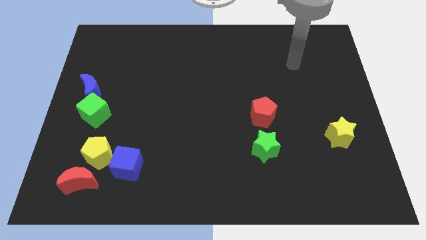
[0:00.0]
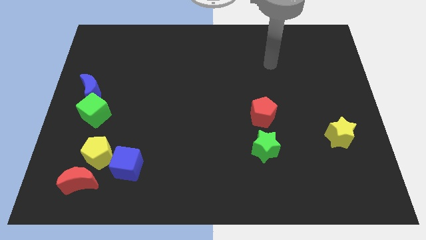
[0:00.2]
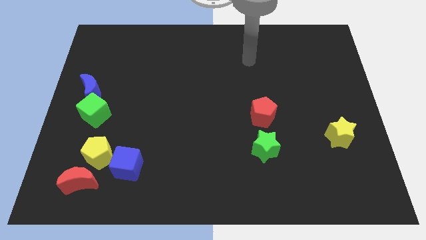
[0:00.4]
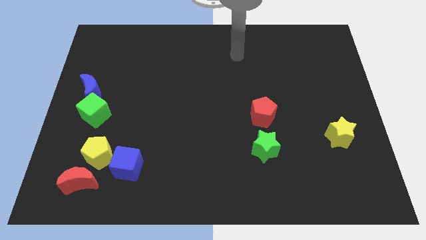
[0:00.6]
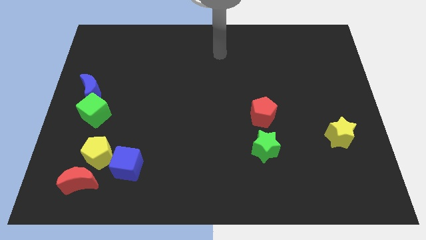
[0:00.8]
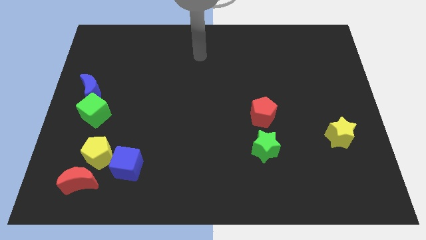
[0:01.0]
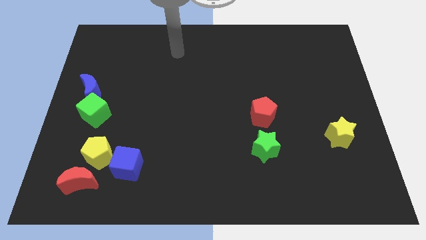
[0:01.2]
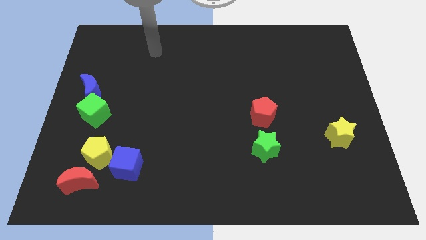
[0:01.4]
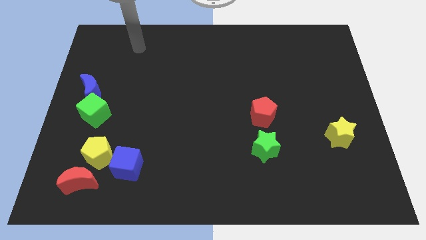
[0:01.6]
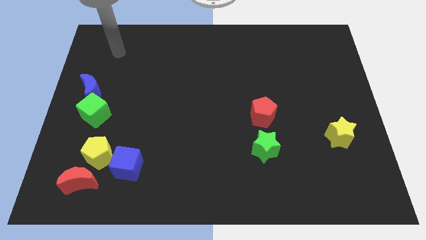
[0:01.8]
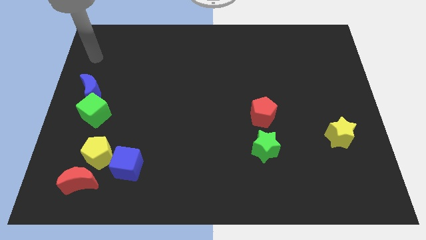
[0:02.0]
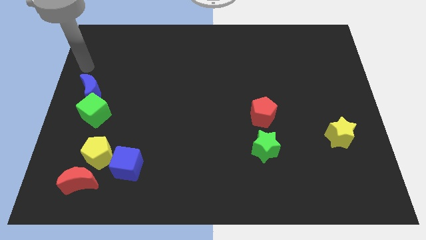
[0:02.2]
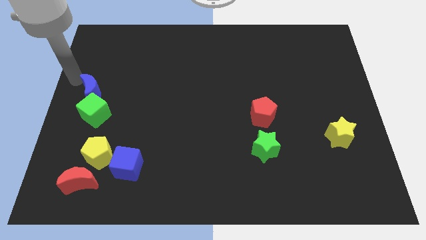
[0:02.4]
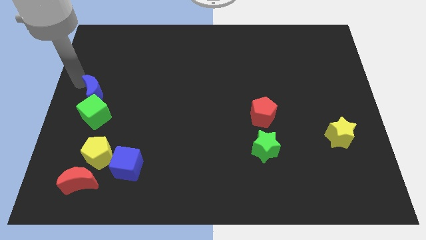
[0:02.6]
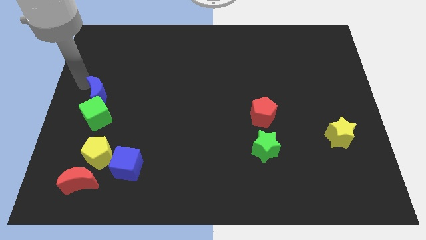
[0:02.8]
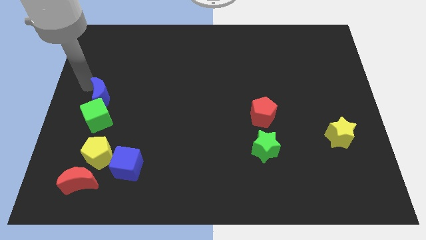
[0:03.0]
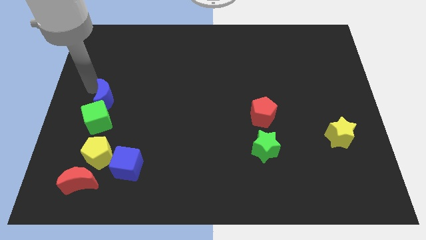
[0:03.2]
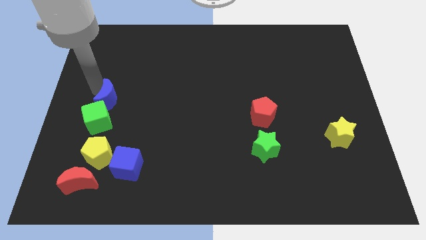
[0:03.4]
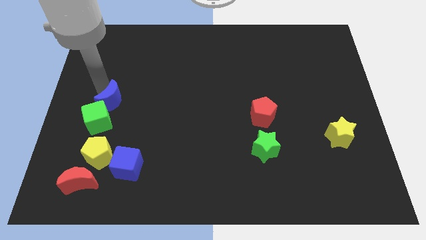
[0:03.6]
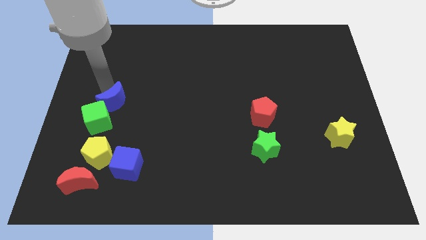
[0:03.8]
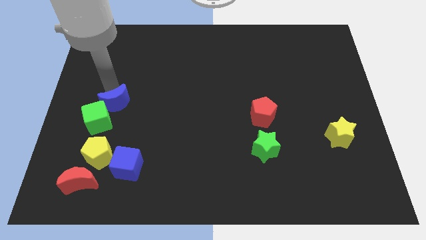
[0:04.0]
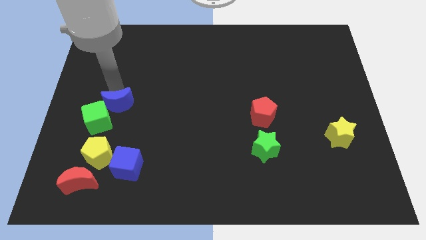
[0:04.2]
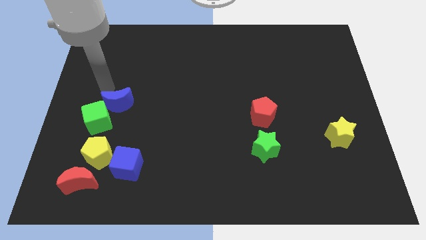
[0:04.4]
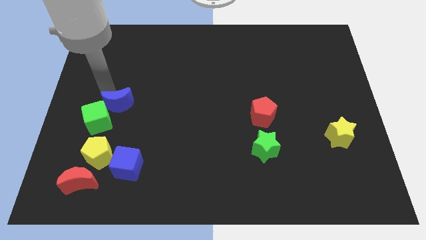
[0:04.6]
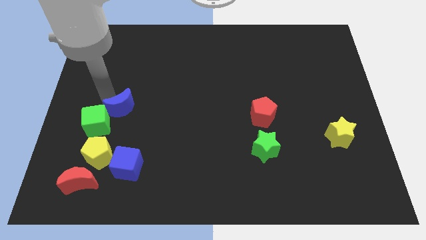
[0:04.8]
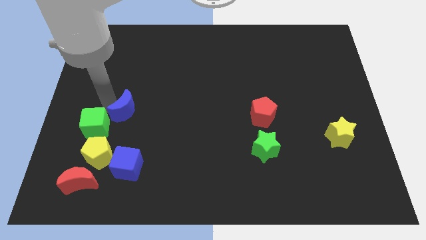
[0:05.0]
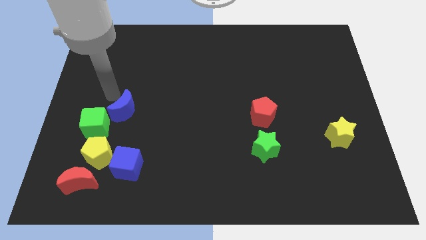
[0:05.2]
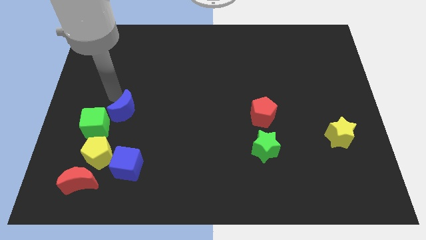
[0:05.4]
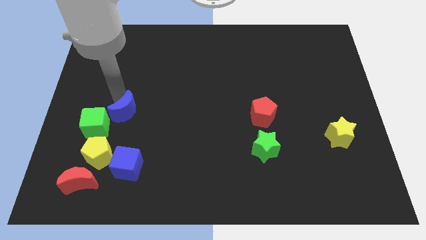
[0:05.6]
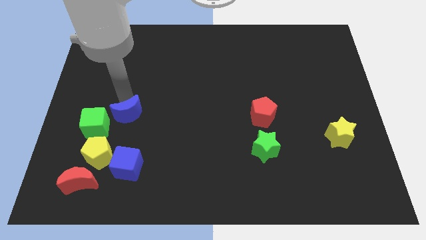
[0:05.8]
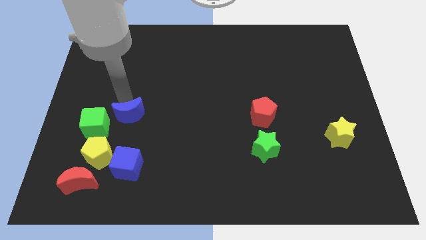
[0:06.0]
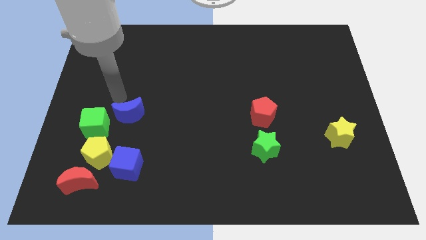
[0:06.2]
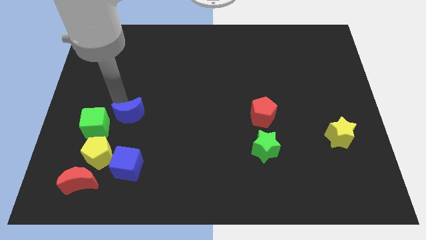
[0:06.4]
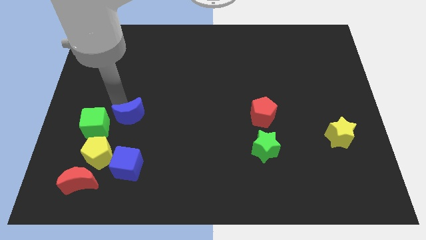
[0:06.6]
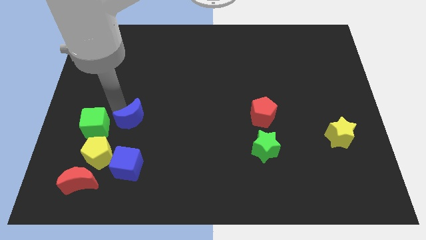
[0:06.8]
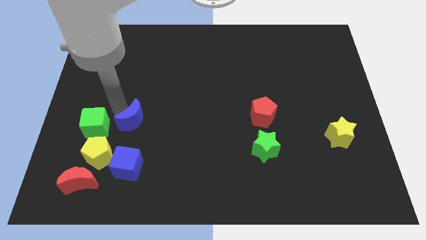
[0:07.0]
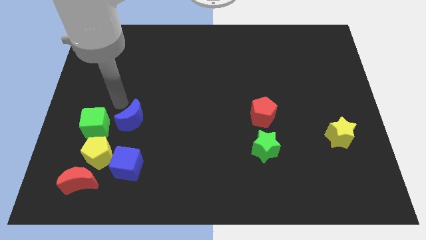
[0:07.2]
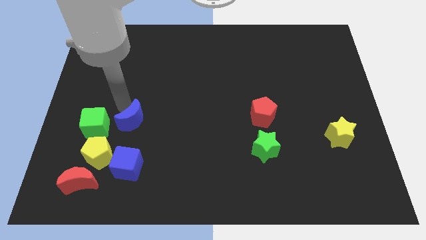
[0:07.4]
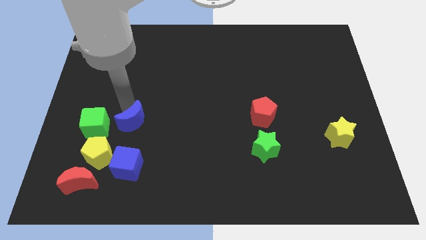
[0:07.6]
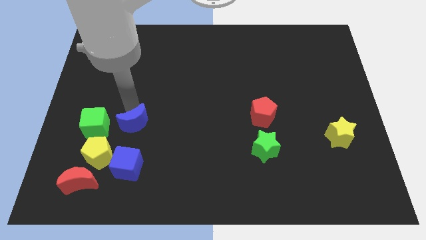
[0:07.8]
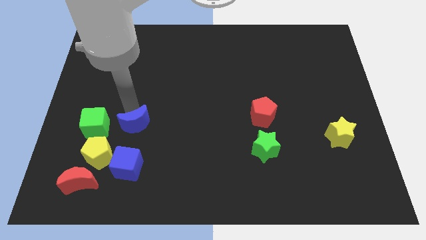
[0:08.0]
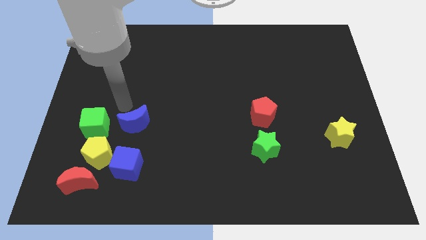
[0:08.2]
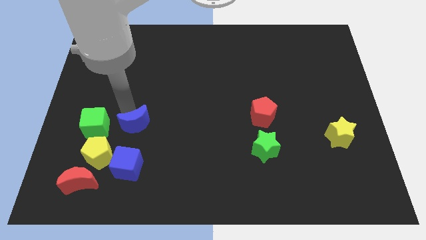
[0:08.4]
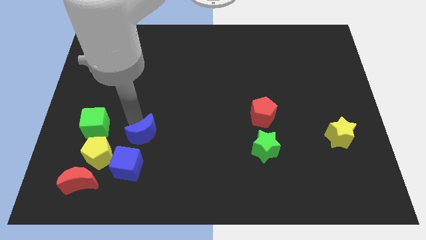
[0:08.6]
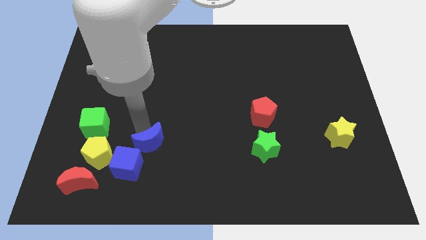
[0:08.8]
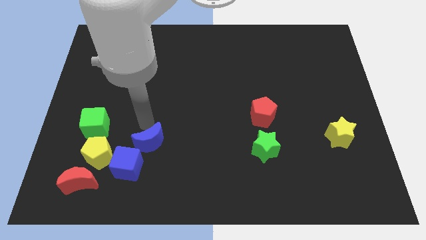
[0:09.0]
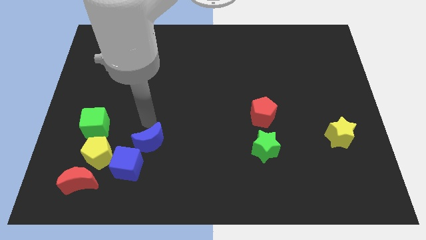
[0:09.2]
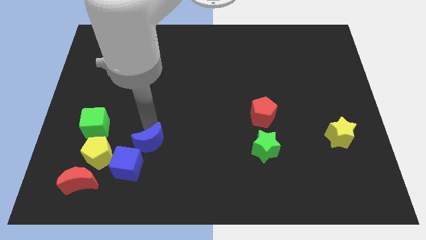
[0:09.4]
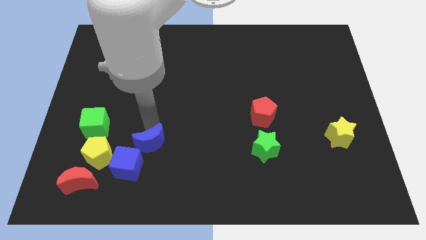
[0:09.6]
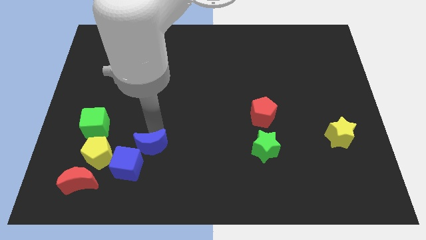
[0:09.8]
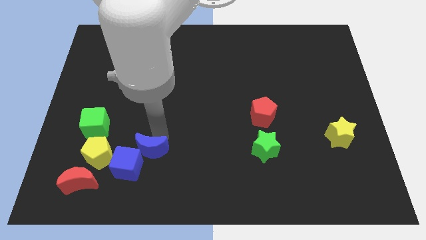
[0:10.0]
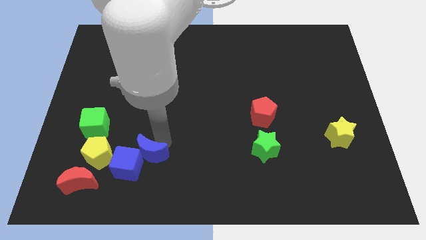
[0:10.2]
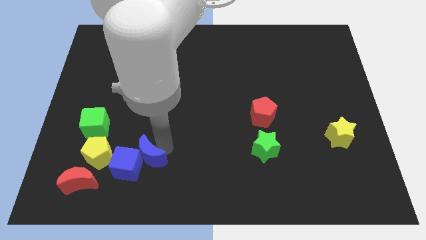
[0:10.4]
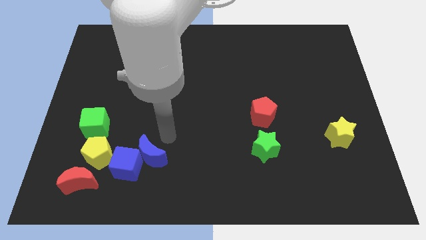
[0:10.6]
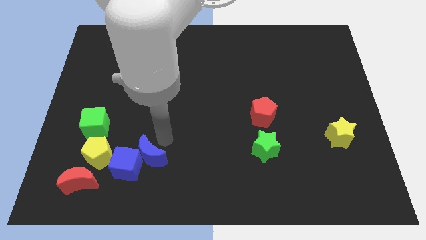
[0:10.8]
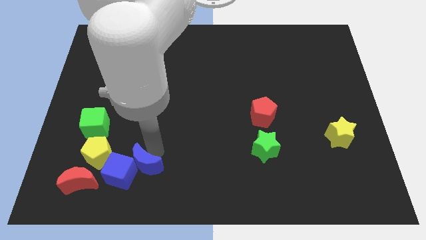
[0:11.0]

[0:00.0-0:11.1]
move the blue moon to the right of the red moon

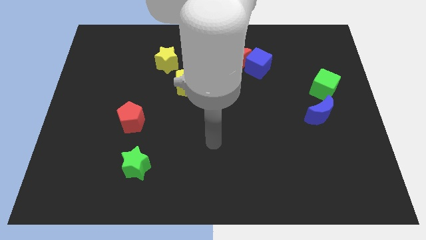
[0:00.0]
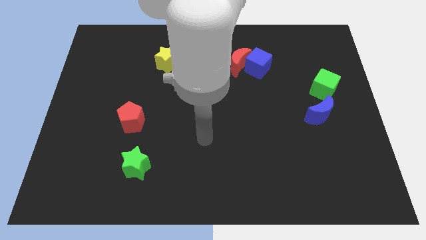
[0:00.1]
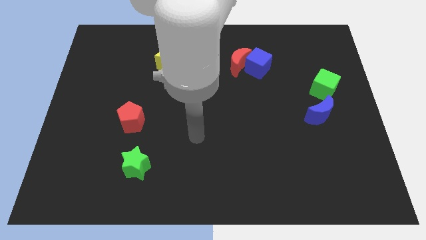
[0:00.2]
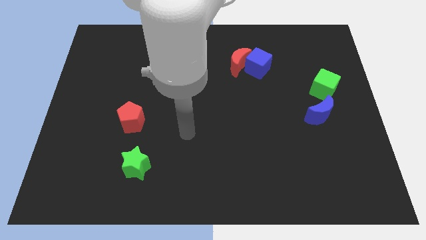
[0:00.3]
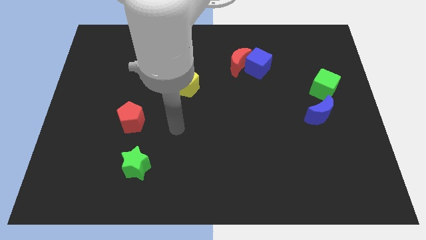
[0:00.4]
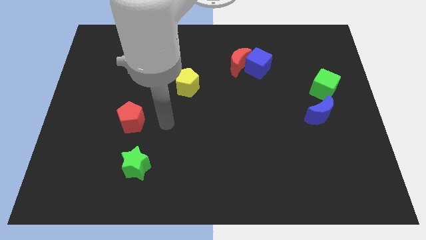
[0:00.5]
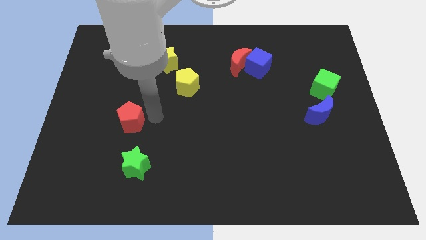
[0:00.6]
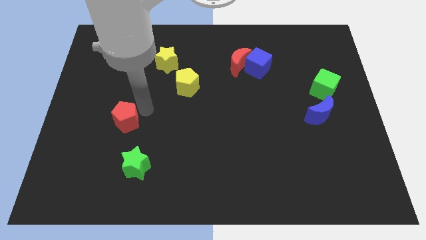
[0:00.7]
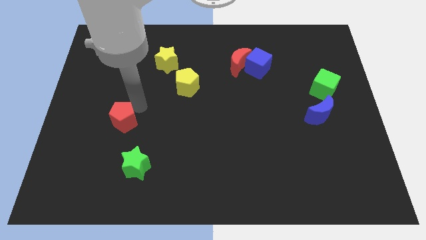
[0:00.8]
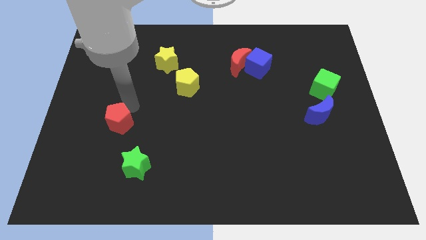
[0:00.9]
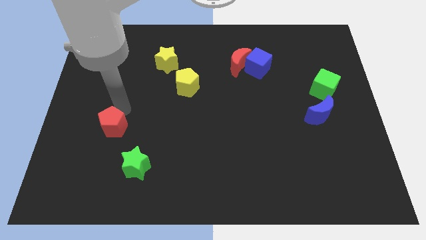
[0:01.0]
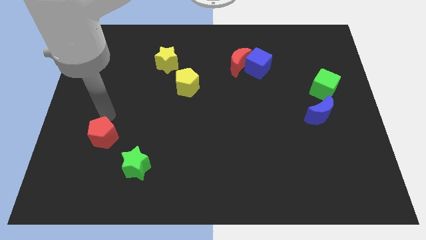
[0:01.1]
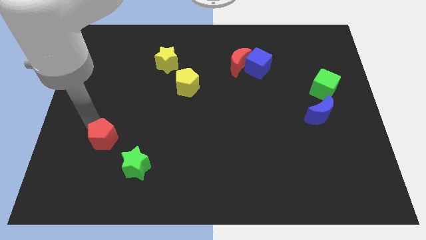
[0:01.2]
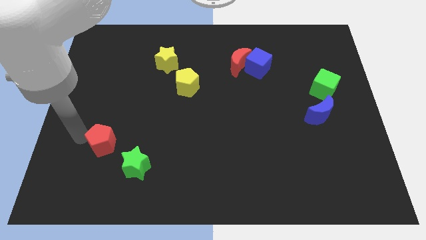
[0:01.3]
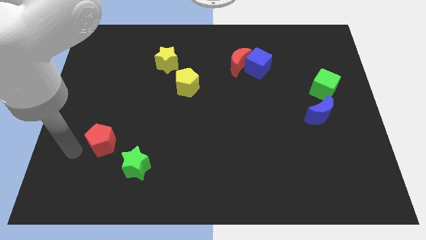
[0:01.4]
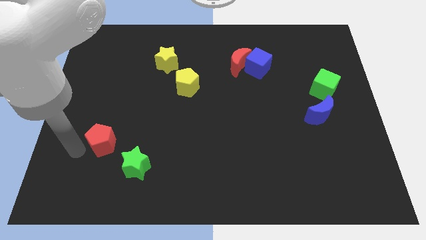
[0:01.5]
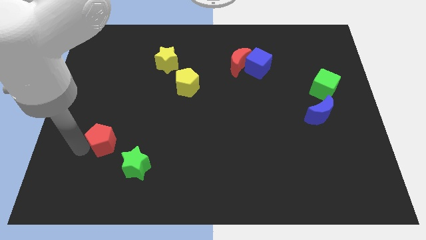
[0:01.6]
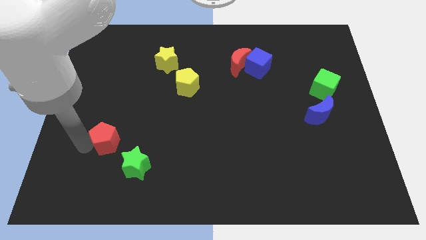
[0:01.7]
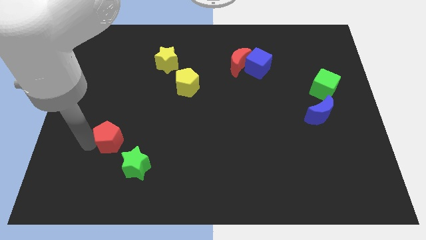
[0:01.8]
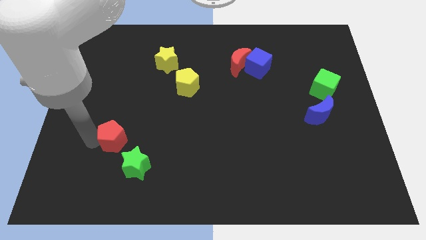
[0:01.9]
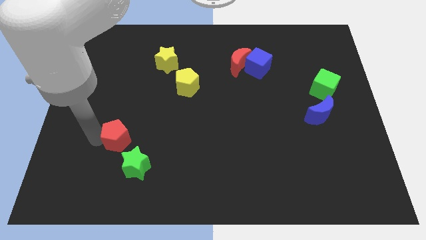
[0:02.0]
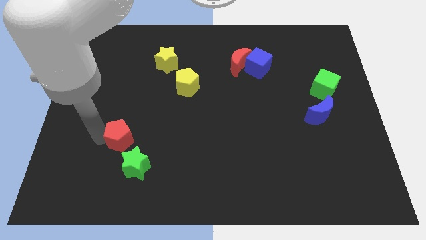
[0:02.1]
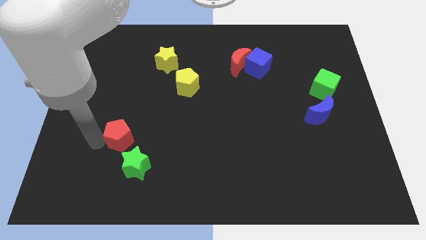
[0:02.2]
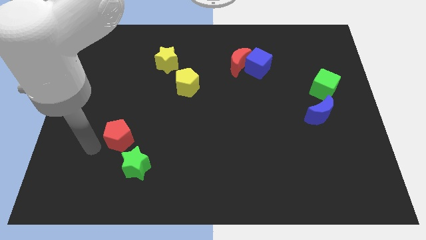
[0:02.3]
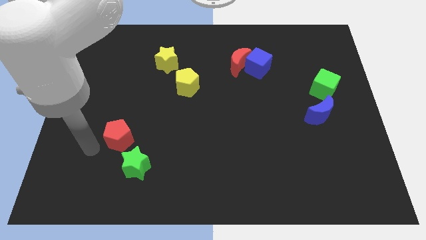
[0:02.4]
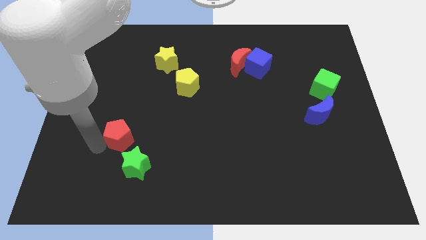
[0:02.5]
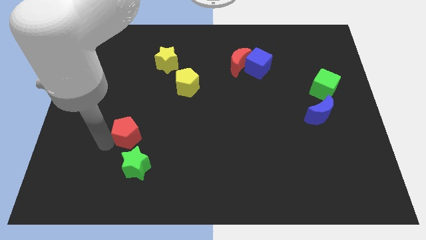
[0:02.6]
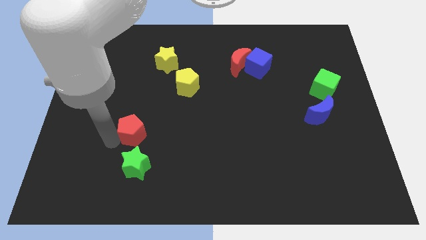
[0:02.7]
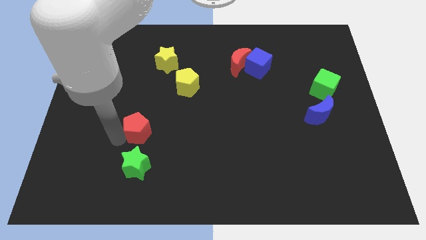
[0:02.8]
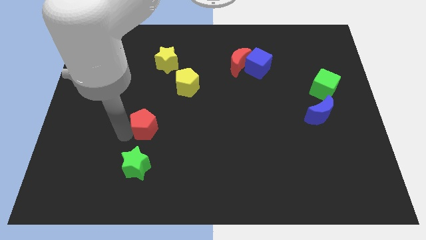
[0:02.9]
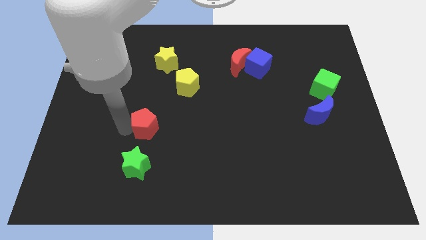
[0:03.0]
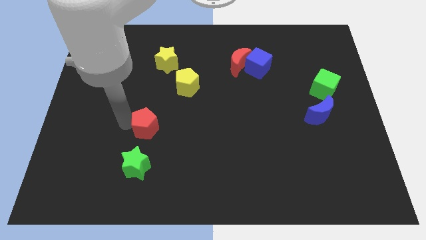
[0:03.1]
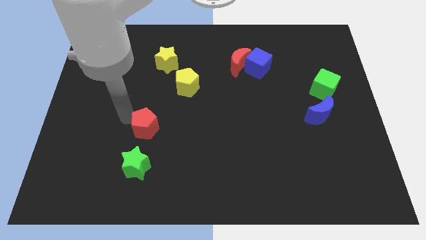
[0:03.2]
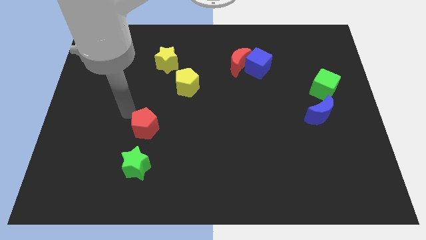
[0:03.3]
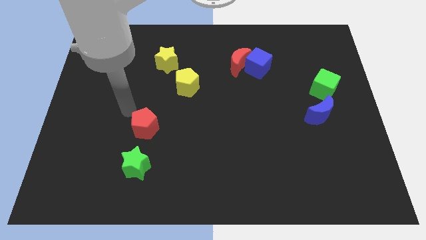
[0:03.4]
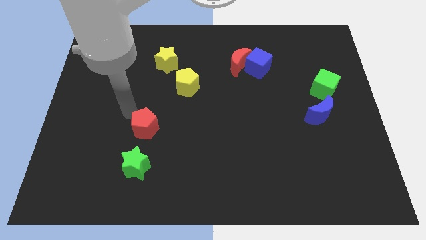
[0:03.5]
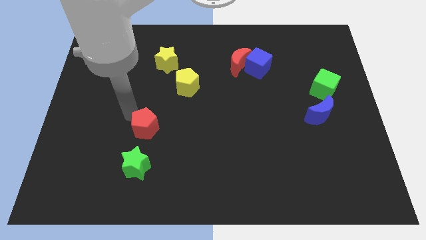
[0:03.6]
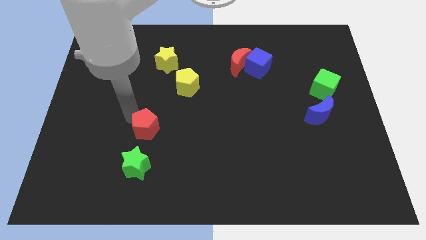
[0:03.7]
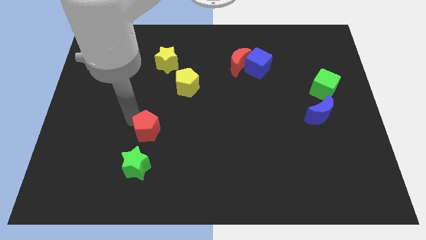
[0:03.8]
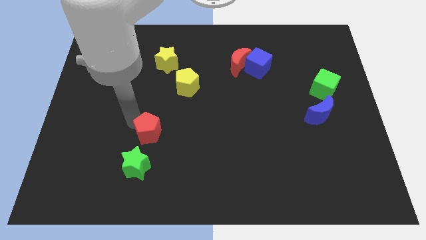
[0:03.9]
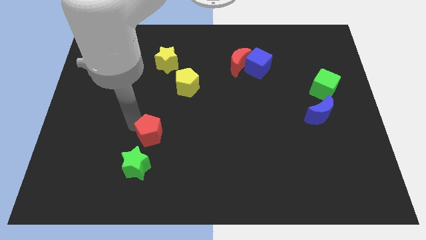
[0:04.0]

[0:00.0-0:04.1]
move the red pentagon to the top right side of the green star
